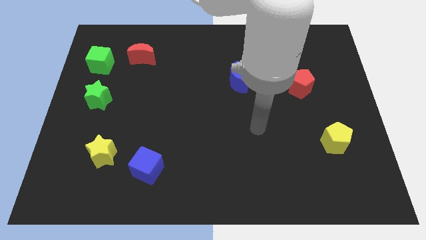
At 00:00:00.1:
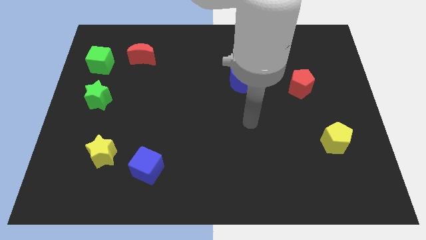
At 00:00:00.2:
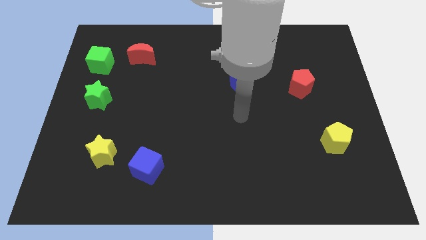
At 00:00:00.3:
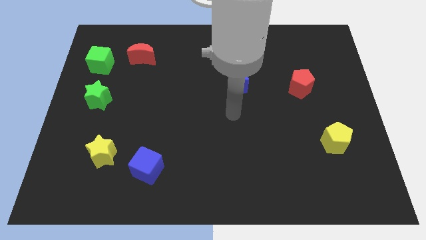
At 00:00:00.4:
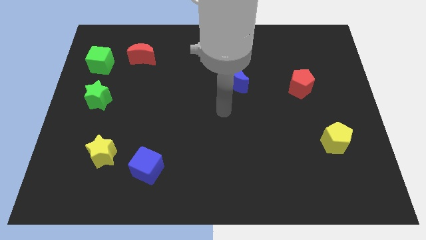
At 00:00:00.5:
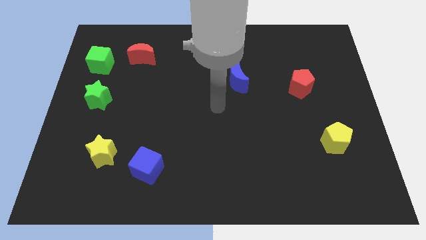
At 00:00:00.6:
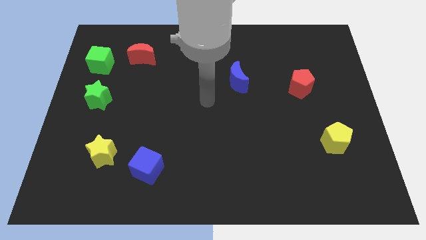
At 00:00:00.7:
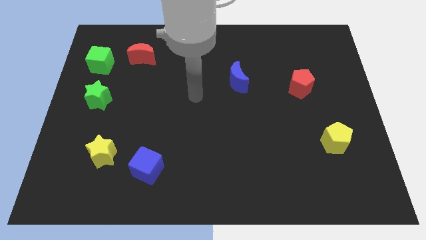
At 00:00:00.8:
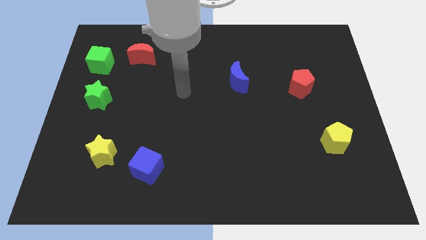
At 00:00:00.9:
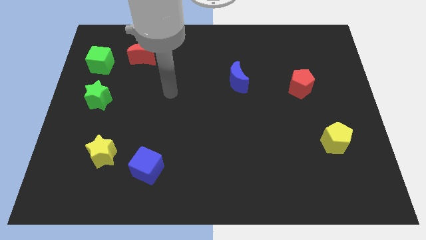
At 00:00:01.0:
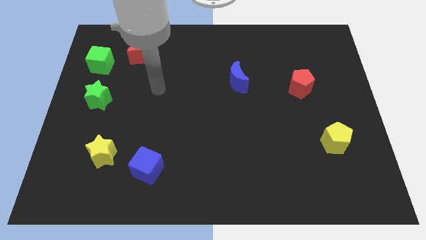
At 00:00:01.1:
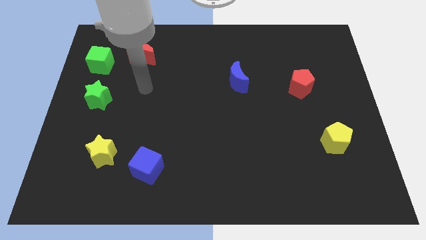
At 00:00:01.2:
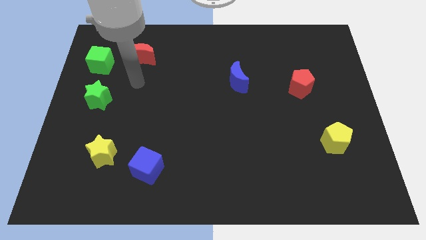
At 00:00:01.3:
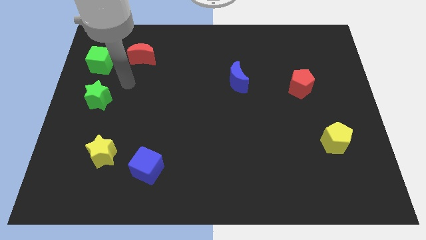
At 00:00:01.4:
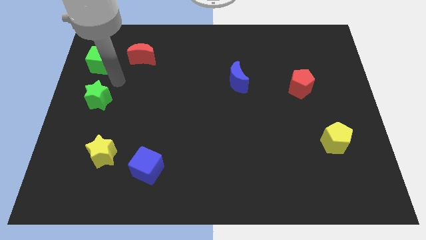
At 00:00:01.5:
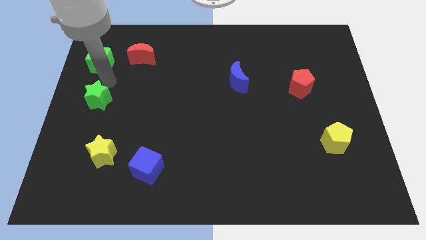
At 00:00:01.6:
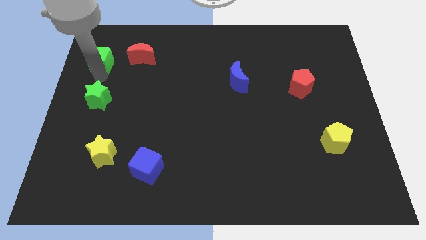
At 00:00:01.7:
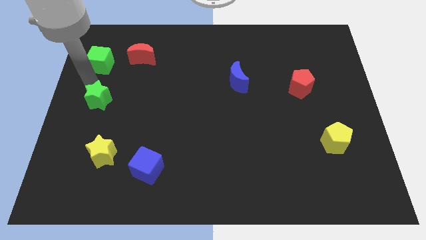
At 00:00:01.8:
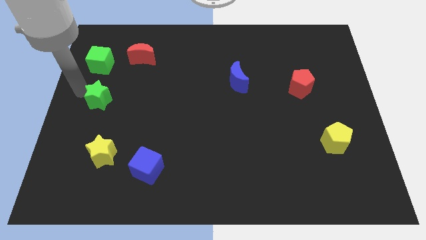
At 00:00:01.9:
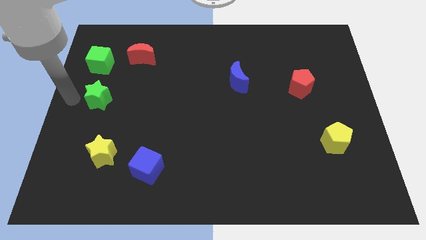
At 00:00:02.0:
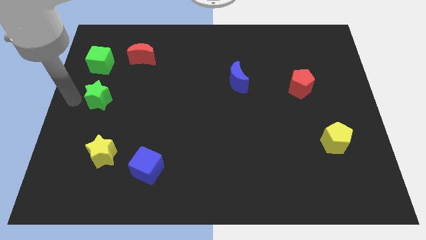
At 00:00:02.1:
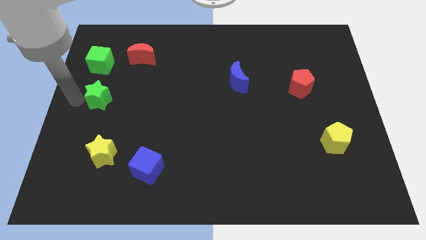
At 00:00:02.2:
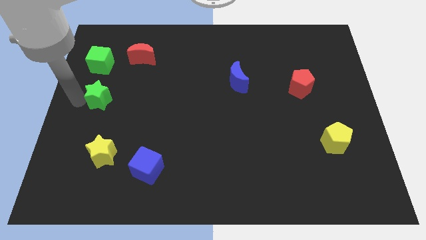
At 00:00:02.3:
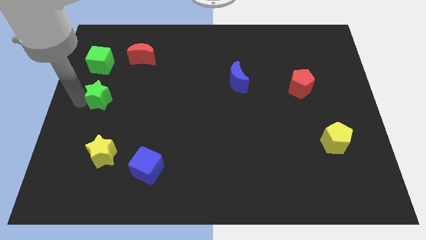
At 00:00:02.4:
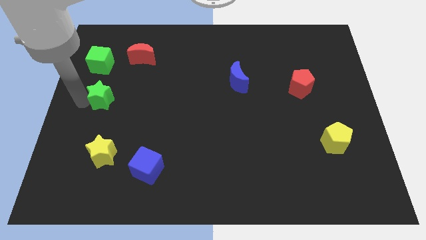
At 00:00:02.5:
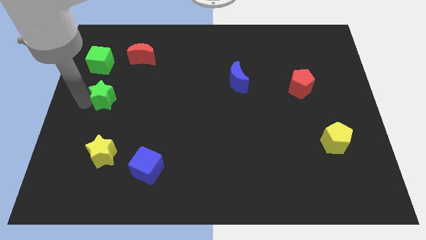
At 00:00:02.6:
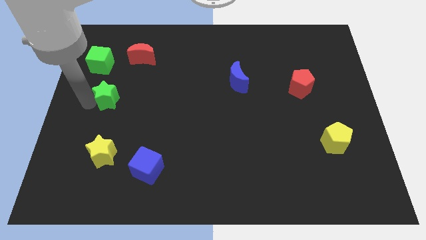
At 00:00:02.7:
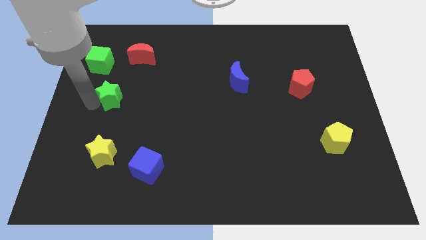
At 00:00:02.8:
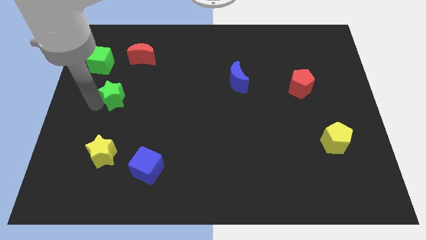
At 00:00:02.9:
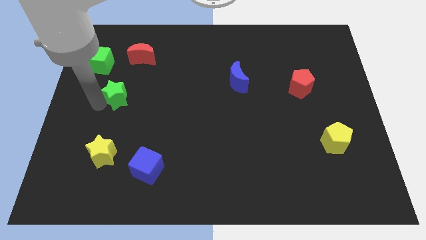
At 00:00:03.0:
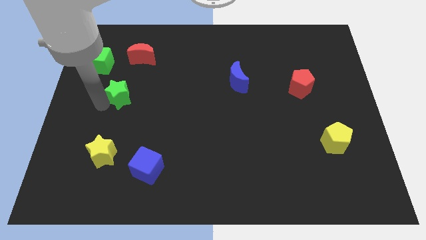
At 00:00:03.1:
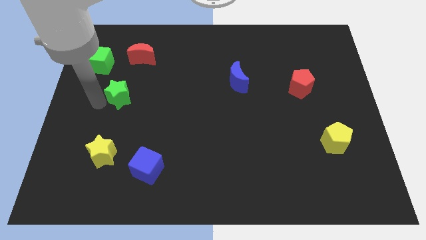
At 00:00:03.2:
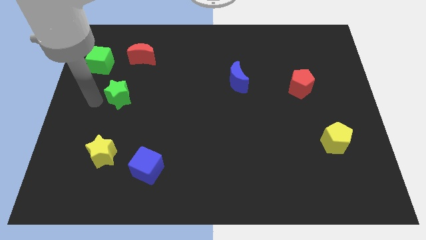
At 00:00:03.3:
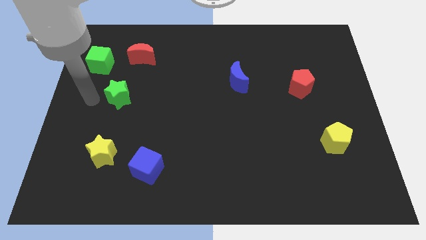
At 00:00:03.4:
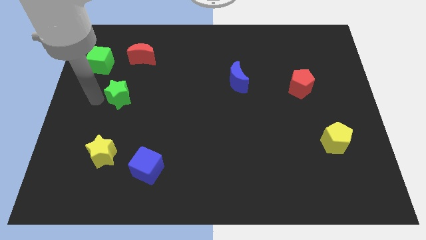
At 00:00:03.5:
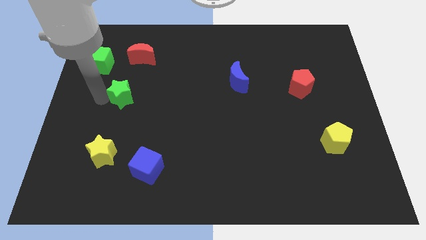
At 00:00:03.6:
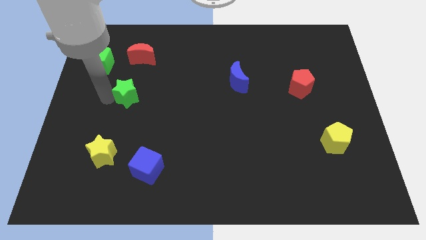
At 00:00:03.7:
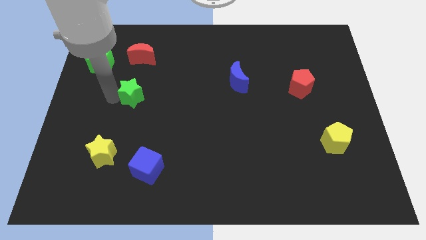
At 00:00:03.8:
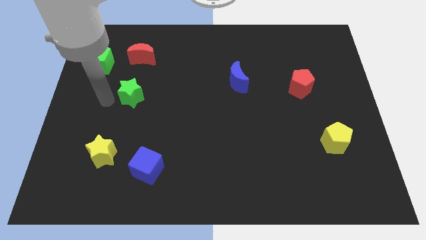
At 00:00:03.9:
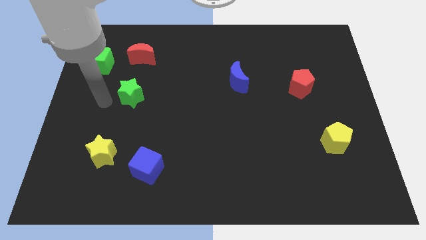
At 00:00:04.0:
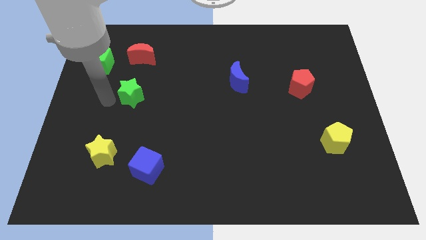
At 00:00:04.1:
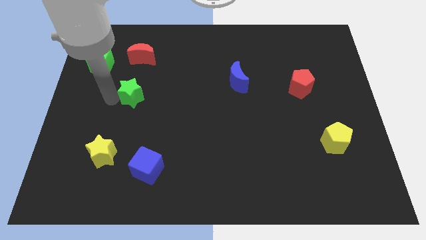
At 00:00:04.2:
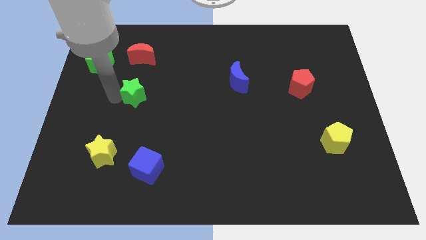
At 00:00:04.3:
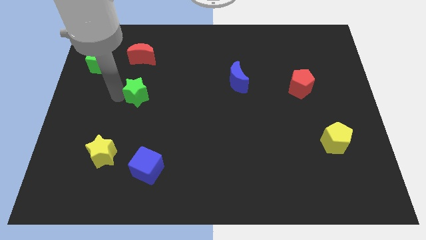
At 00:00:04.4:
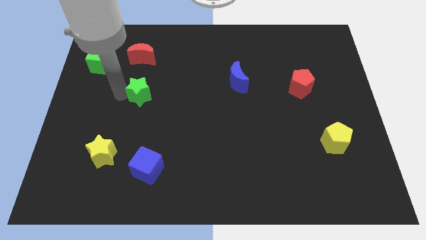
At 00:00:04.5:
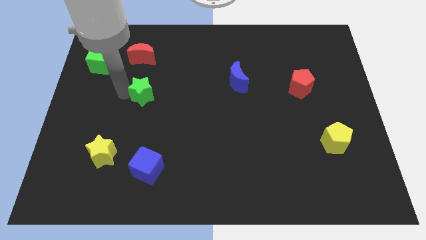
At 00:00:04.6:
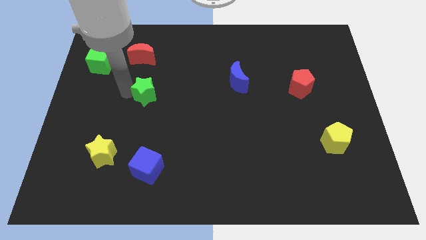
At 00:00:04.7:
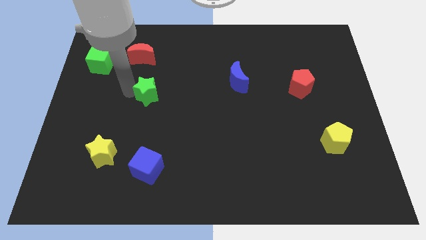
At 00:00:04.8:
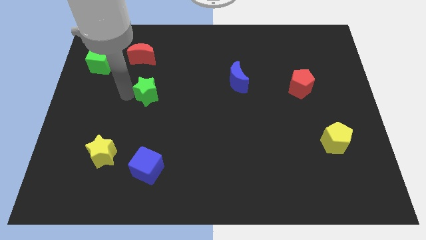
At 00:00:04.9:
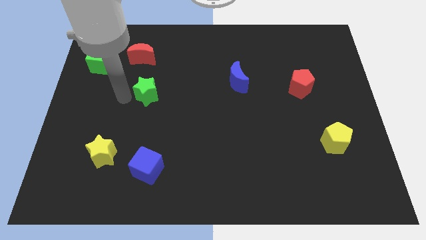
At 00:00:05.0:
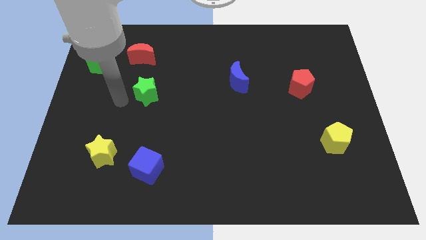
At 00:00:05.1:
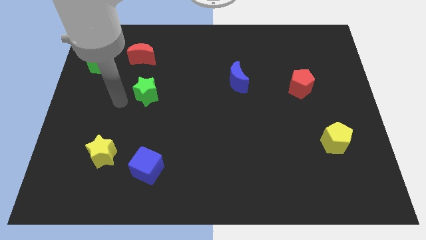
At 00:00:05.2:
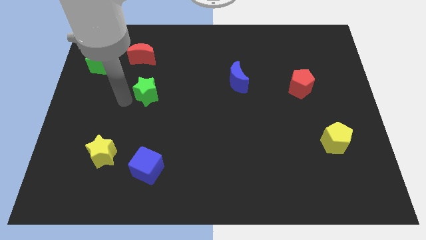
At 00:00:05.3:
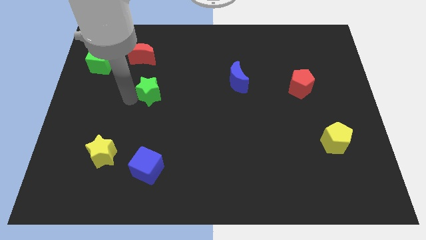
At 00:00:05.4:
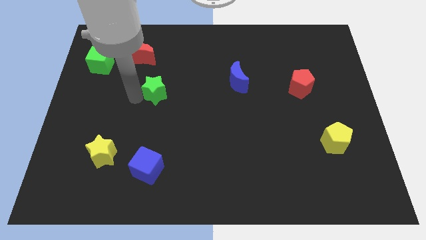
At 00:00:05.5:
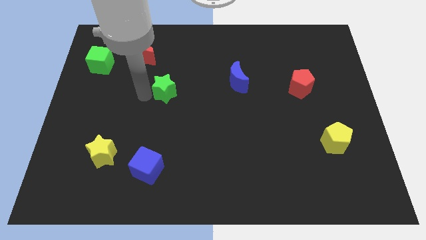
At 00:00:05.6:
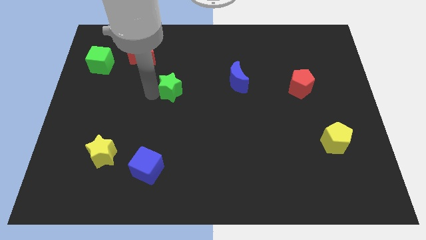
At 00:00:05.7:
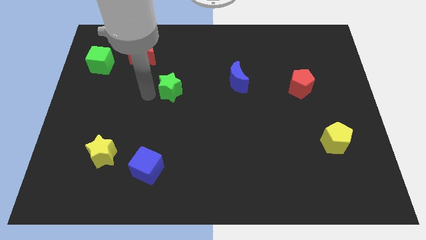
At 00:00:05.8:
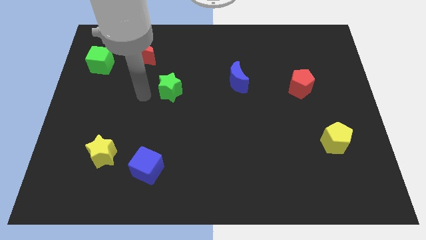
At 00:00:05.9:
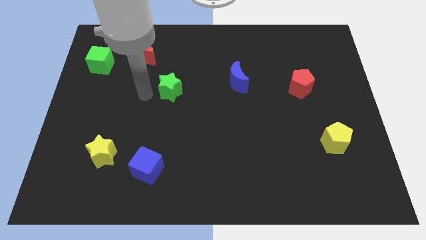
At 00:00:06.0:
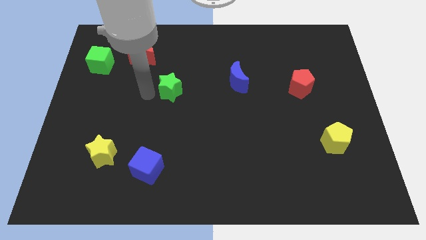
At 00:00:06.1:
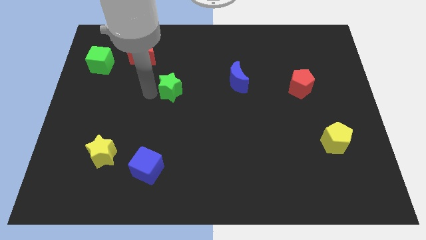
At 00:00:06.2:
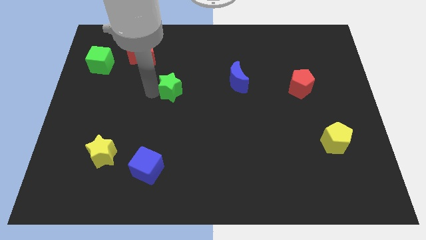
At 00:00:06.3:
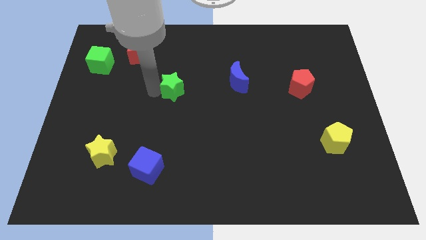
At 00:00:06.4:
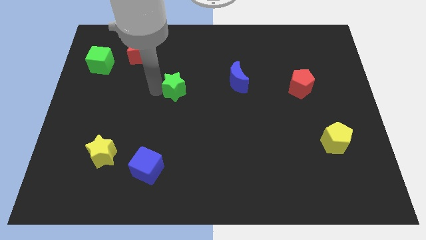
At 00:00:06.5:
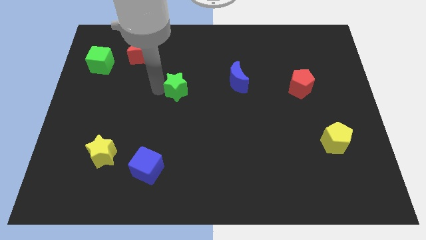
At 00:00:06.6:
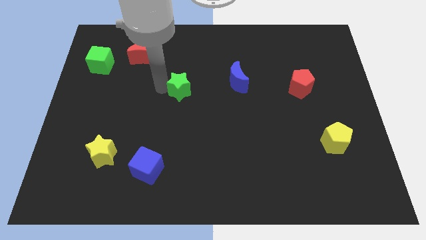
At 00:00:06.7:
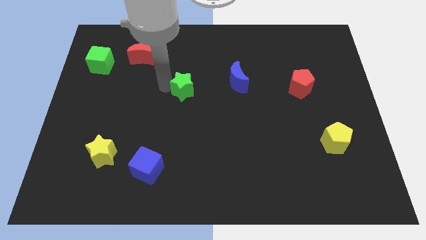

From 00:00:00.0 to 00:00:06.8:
push the green star to the right

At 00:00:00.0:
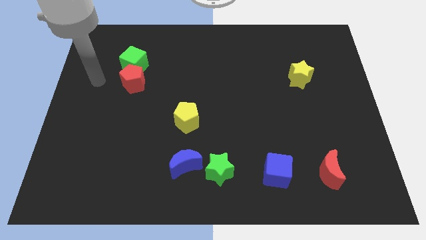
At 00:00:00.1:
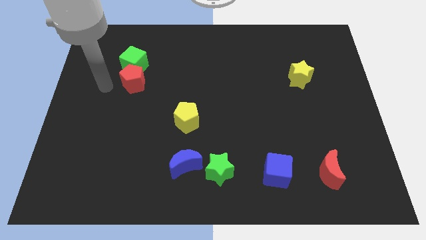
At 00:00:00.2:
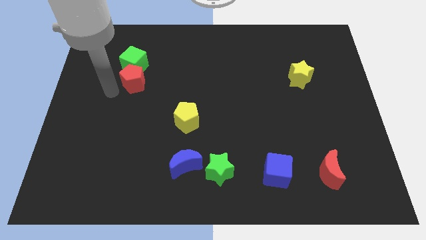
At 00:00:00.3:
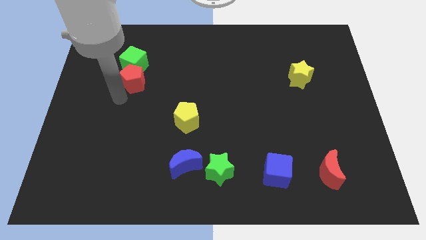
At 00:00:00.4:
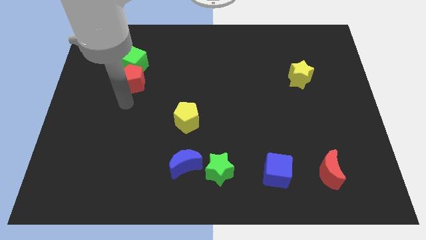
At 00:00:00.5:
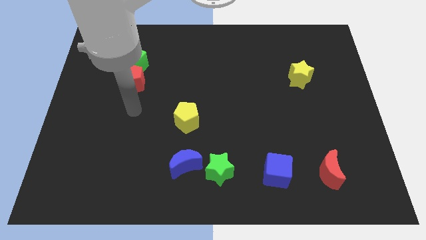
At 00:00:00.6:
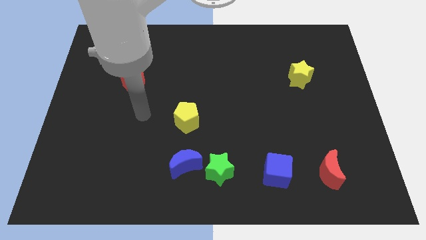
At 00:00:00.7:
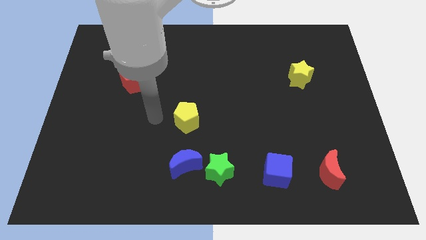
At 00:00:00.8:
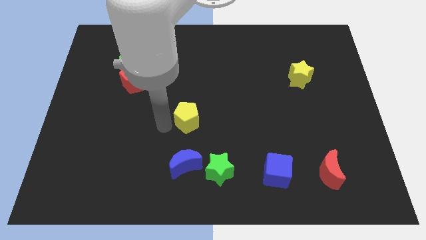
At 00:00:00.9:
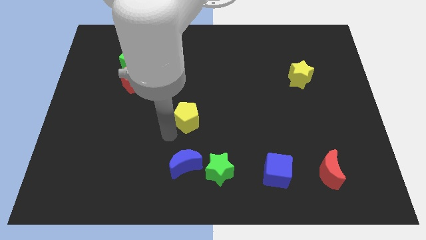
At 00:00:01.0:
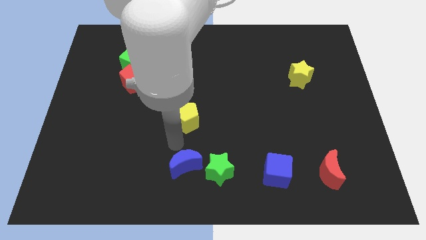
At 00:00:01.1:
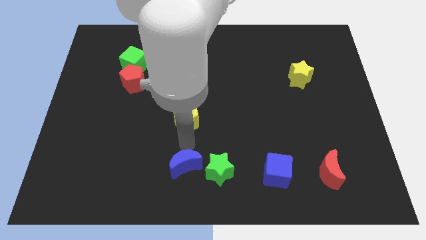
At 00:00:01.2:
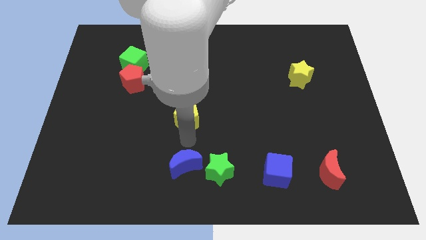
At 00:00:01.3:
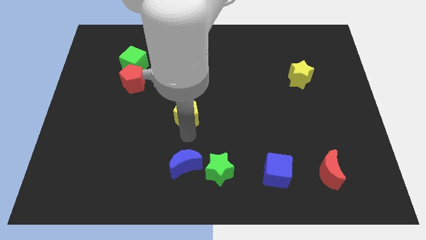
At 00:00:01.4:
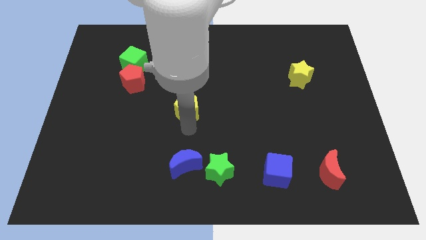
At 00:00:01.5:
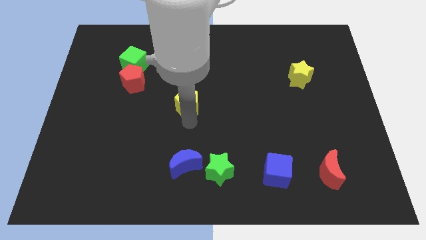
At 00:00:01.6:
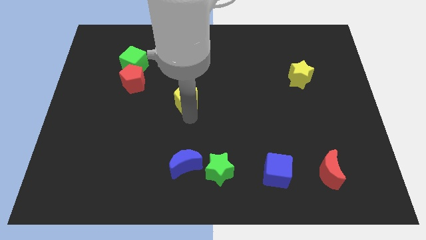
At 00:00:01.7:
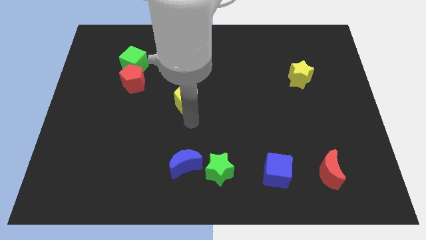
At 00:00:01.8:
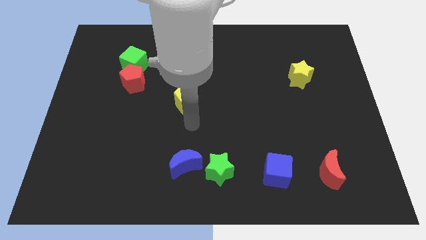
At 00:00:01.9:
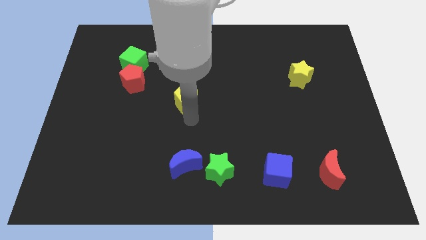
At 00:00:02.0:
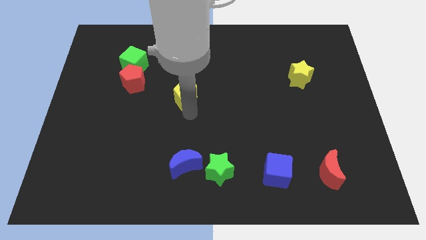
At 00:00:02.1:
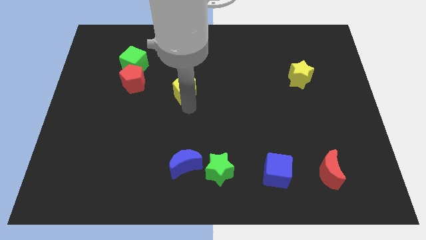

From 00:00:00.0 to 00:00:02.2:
slightly push the yellow pentagon up
